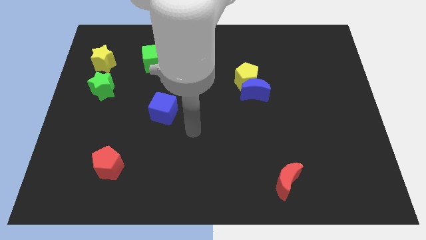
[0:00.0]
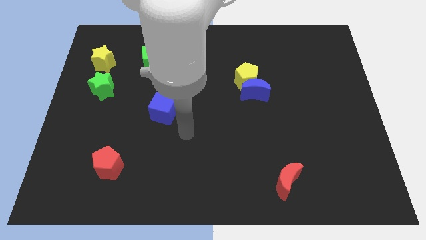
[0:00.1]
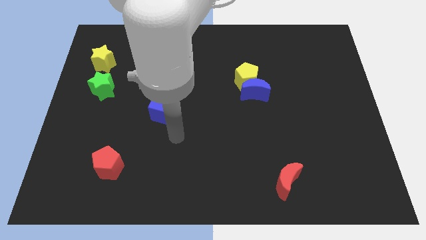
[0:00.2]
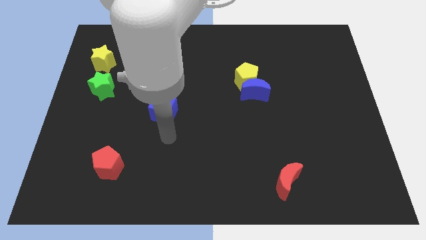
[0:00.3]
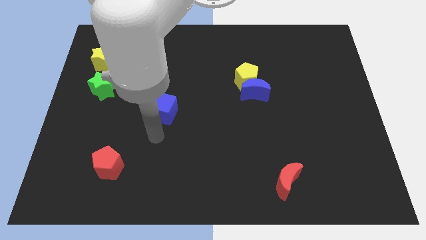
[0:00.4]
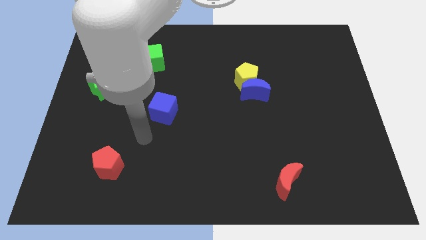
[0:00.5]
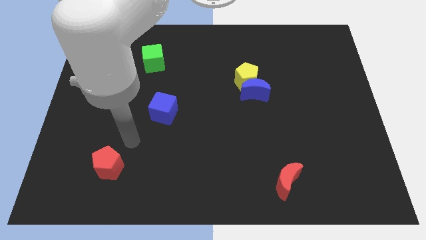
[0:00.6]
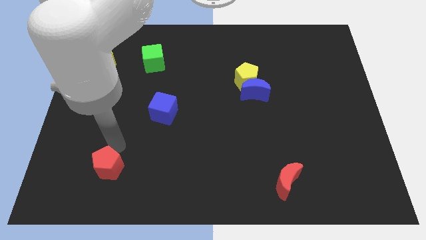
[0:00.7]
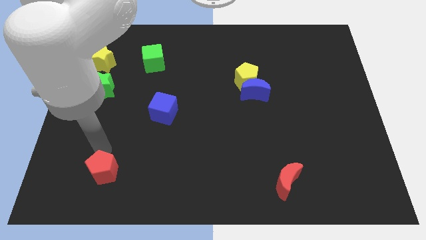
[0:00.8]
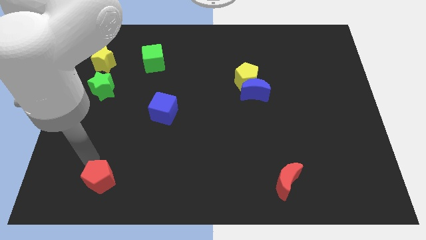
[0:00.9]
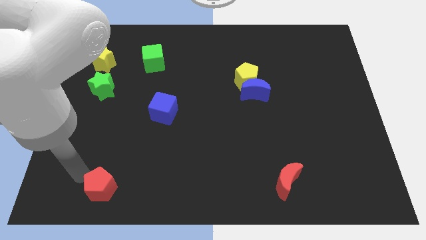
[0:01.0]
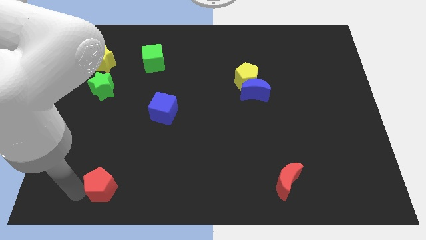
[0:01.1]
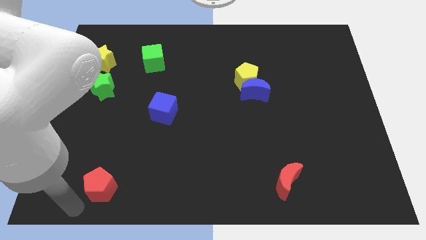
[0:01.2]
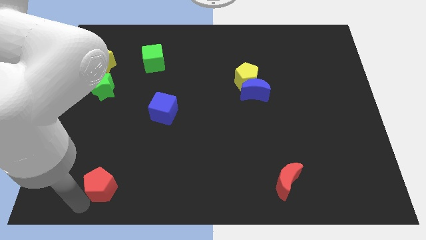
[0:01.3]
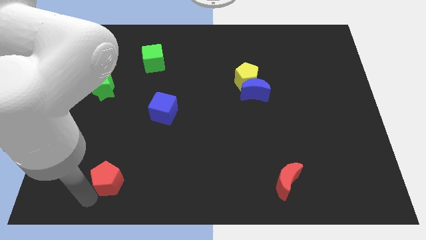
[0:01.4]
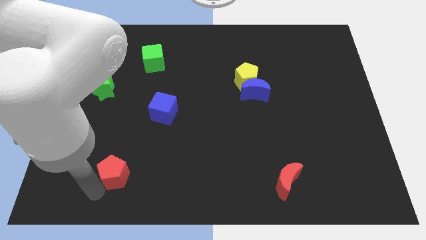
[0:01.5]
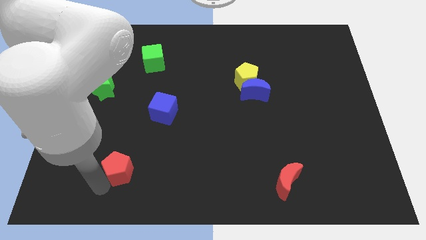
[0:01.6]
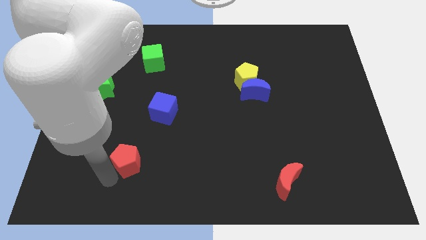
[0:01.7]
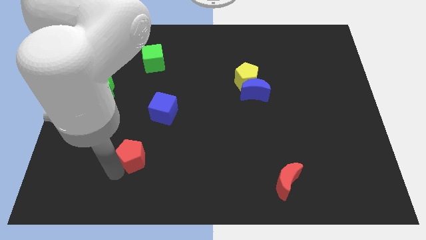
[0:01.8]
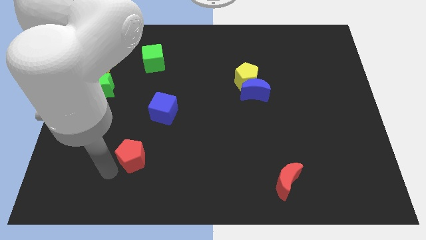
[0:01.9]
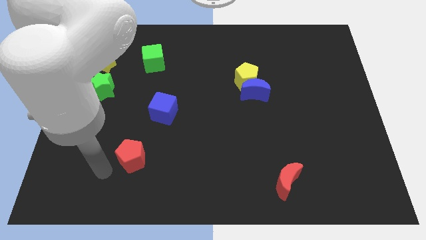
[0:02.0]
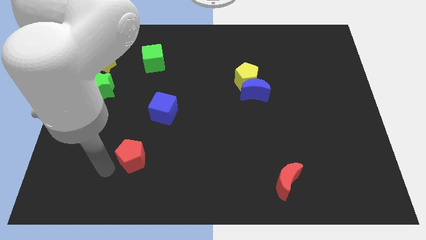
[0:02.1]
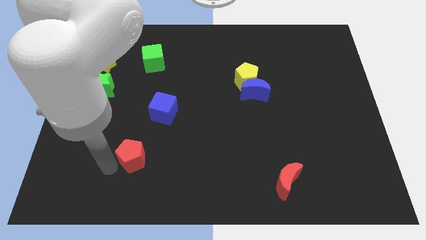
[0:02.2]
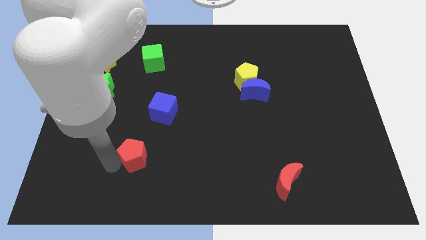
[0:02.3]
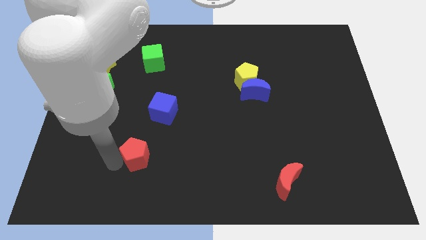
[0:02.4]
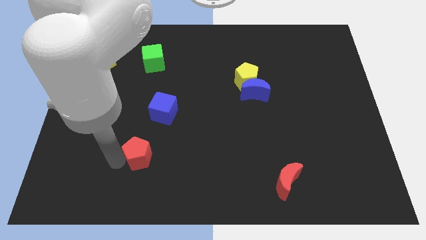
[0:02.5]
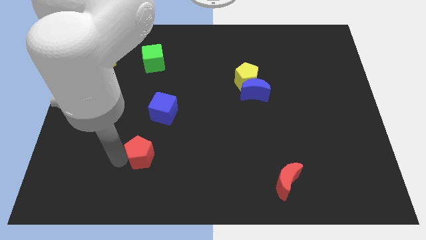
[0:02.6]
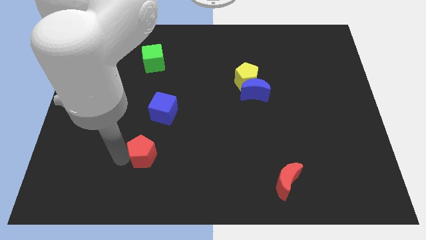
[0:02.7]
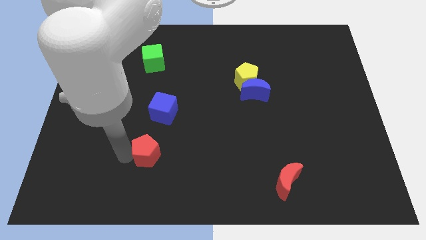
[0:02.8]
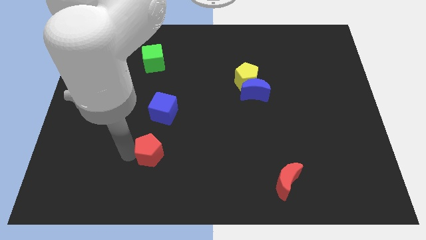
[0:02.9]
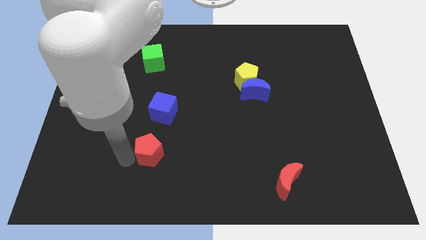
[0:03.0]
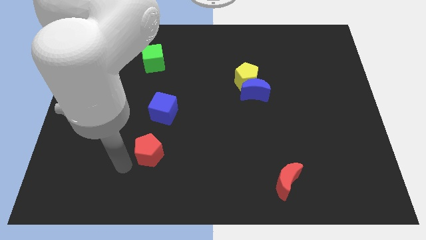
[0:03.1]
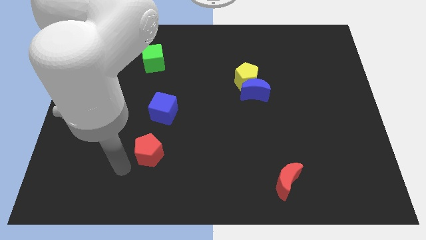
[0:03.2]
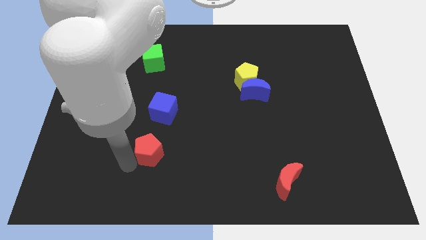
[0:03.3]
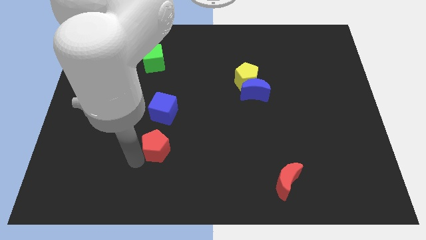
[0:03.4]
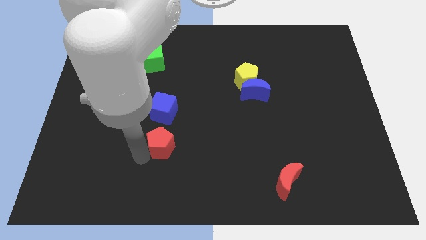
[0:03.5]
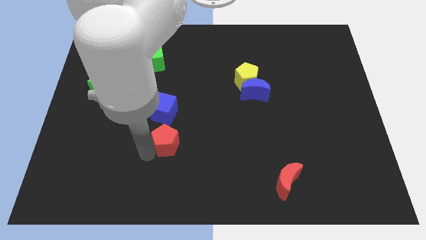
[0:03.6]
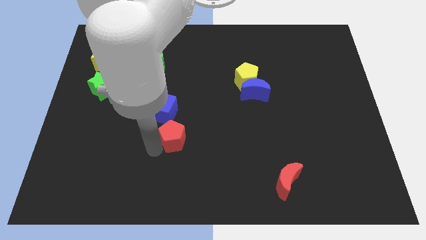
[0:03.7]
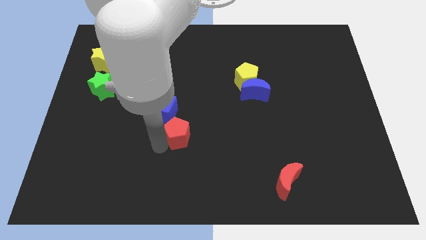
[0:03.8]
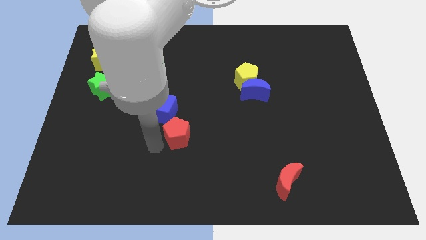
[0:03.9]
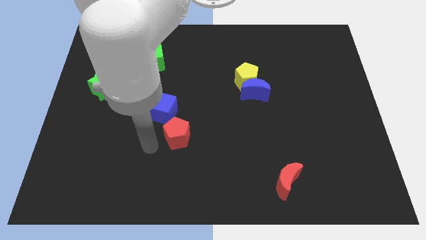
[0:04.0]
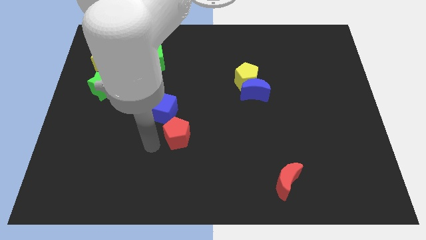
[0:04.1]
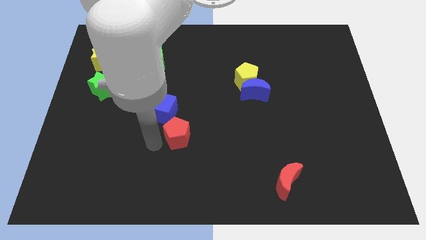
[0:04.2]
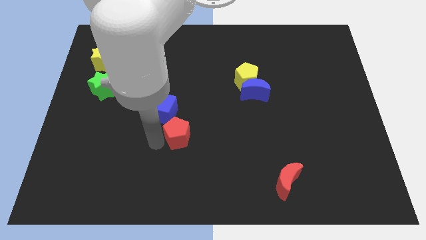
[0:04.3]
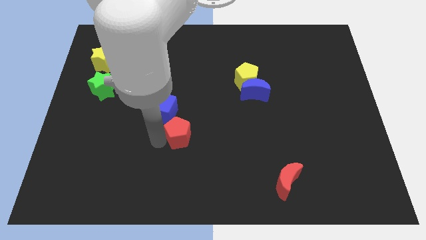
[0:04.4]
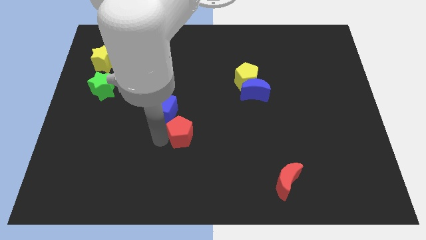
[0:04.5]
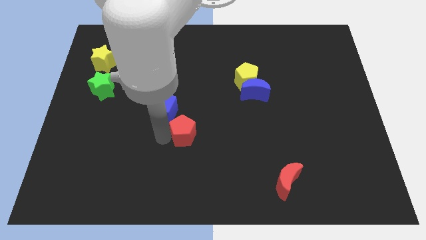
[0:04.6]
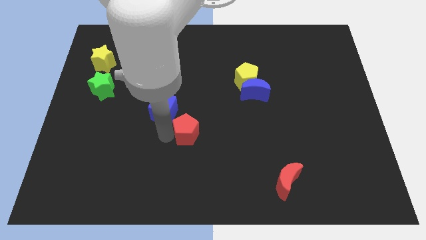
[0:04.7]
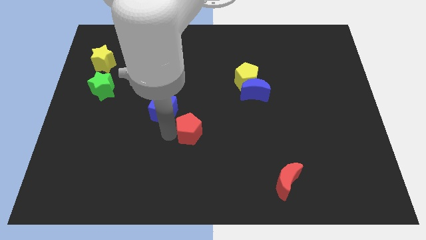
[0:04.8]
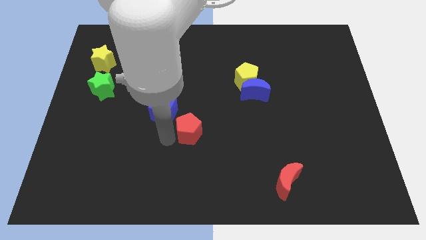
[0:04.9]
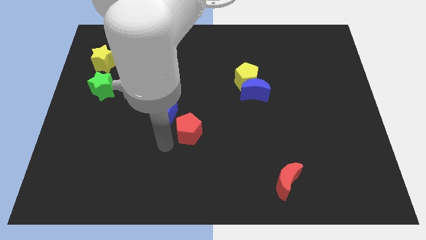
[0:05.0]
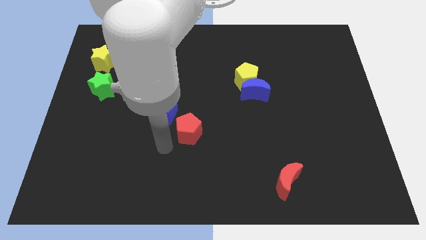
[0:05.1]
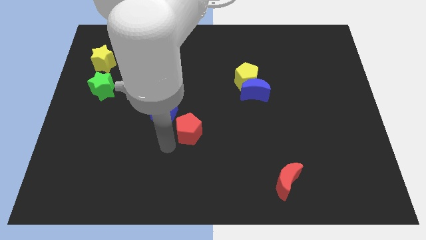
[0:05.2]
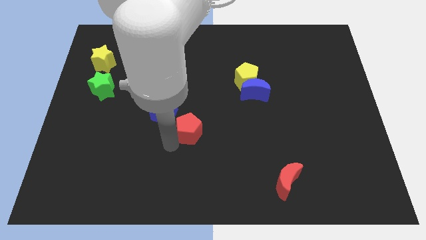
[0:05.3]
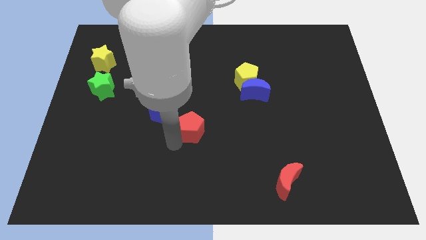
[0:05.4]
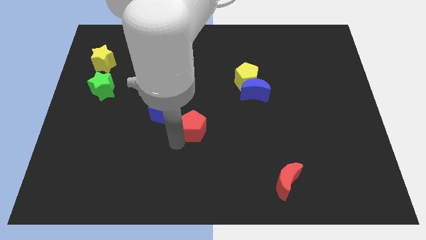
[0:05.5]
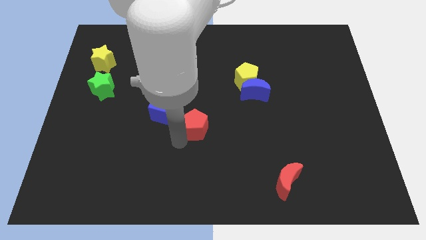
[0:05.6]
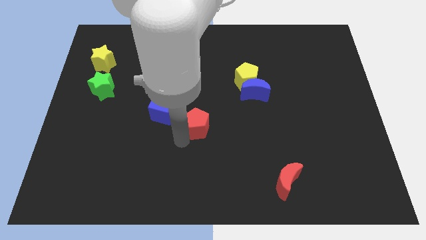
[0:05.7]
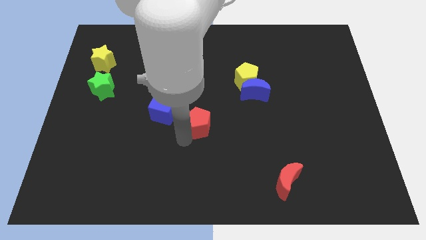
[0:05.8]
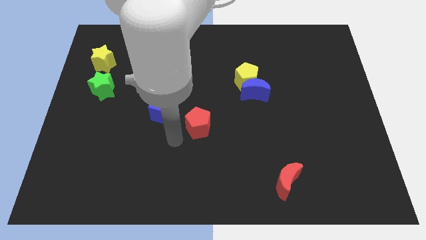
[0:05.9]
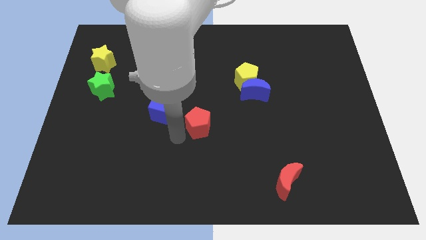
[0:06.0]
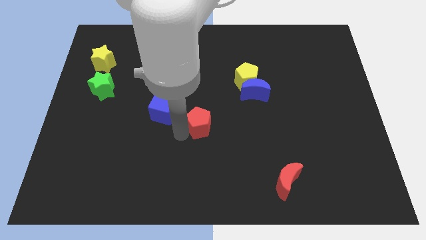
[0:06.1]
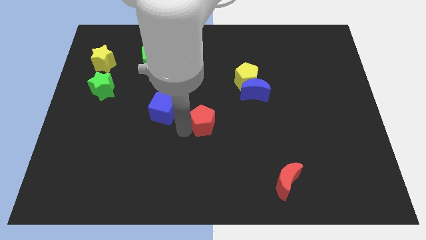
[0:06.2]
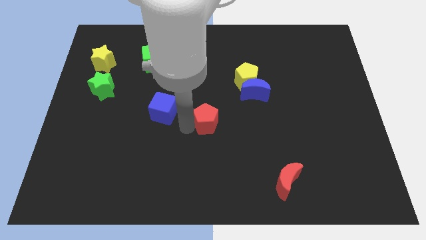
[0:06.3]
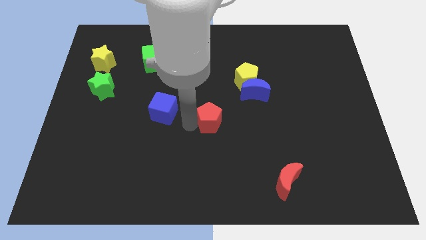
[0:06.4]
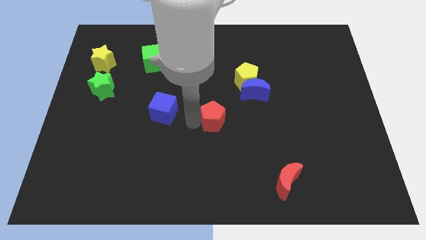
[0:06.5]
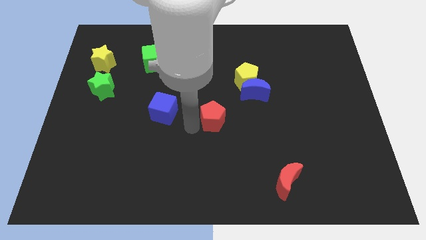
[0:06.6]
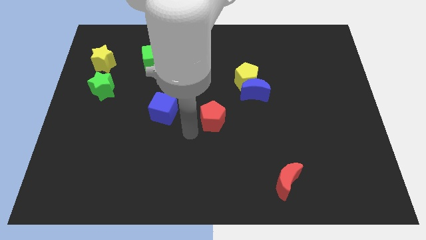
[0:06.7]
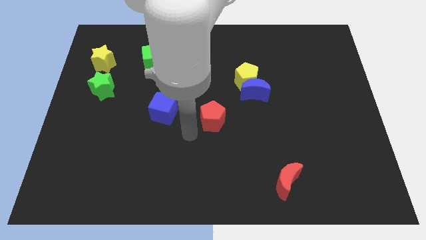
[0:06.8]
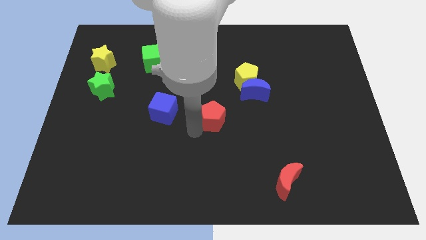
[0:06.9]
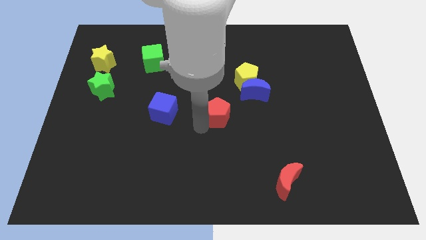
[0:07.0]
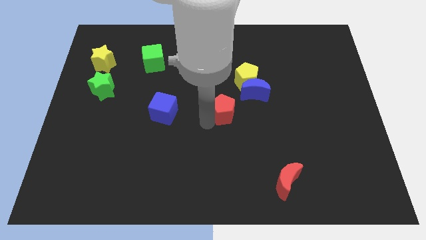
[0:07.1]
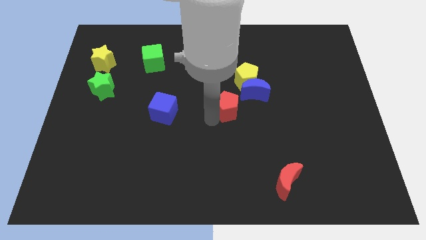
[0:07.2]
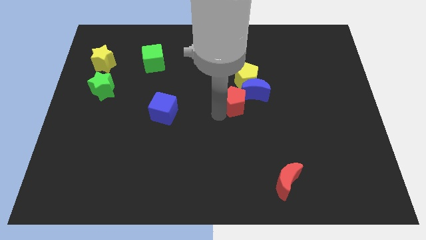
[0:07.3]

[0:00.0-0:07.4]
push the red pentagon next to the blue moon

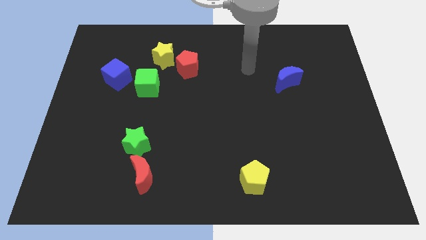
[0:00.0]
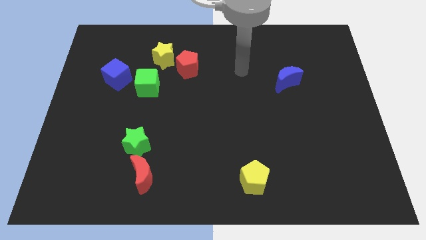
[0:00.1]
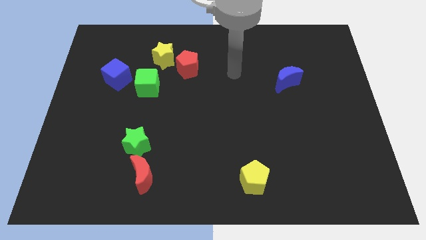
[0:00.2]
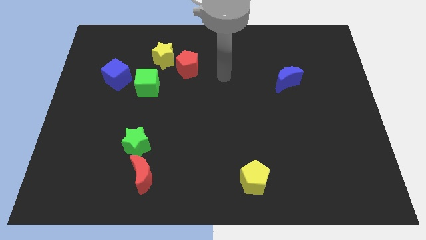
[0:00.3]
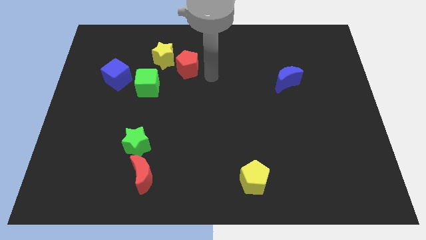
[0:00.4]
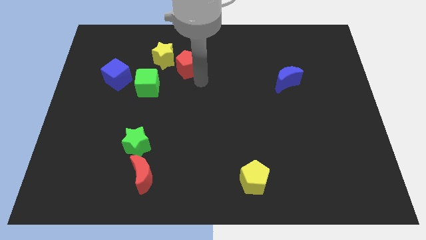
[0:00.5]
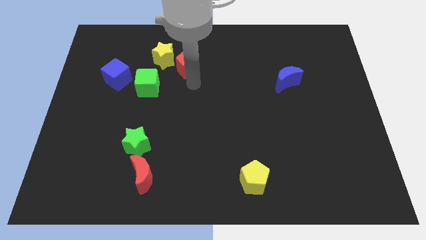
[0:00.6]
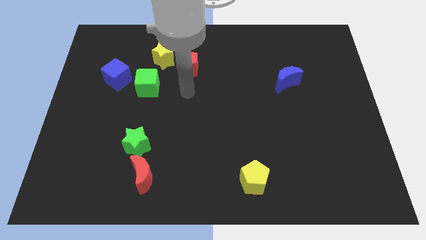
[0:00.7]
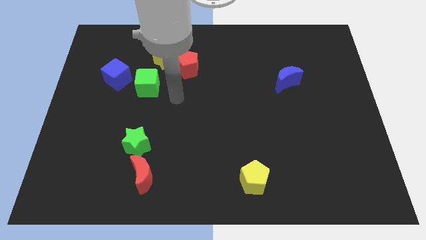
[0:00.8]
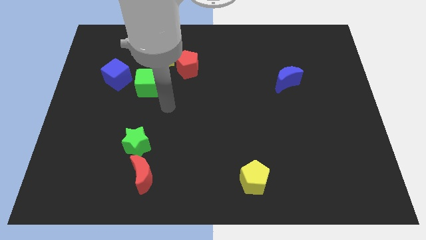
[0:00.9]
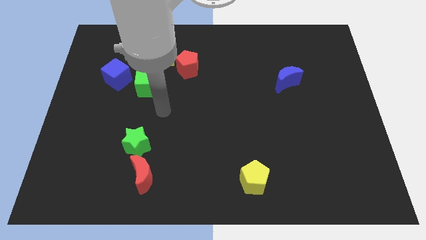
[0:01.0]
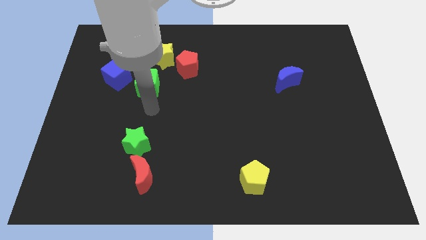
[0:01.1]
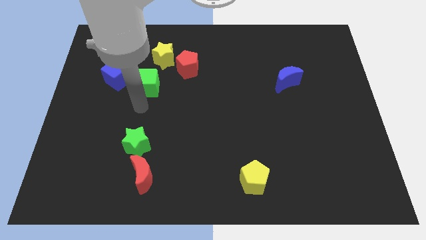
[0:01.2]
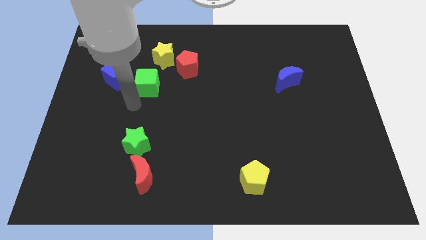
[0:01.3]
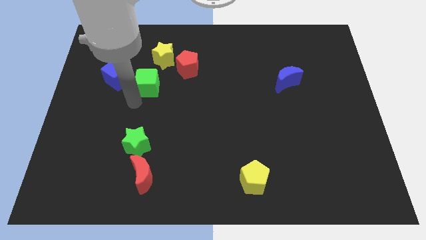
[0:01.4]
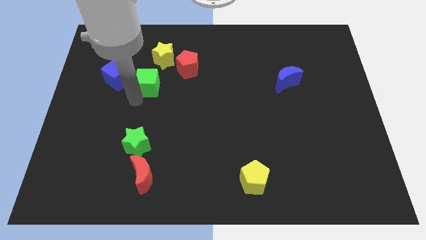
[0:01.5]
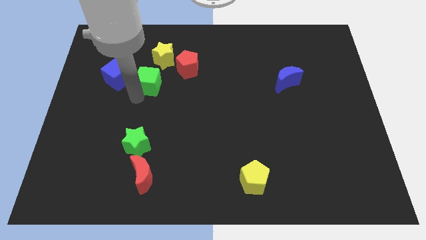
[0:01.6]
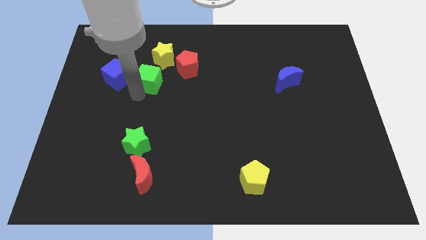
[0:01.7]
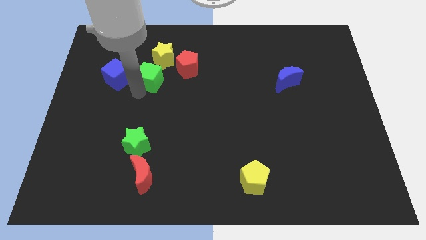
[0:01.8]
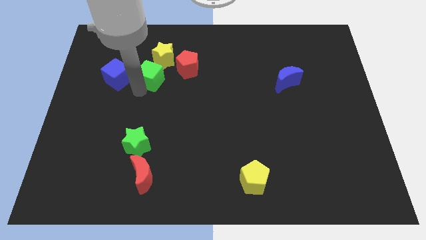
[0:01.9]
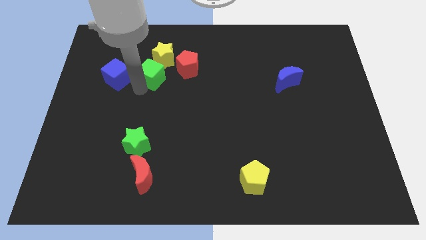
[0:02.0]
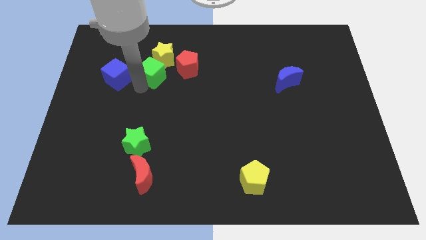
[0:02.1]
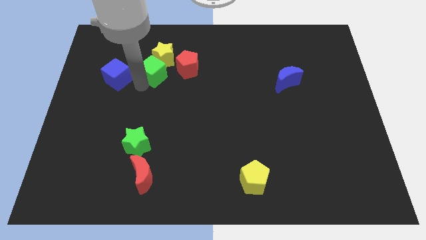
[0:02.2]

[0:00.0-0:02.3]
slide the green cube close to the yellow star
